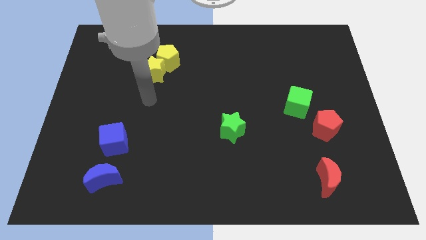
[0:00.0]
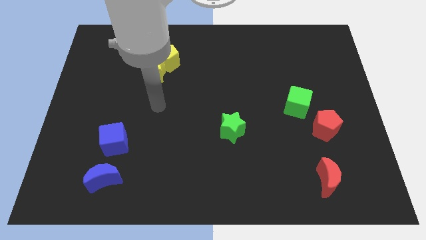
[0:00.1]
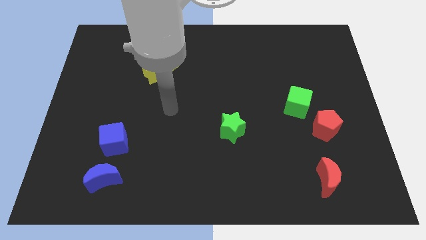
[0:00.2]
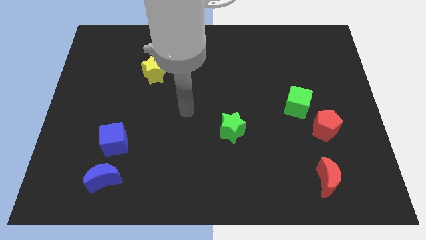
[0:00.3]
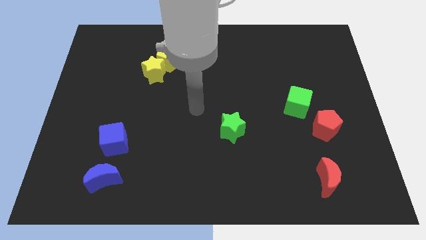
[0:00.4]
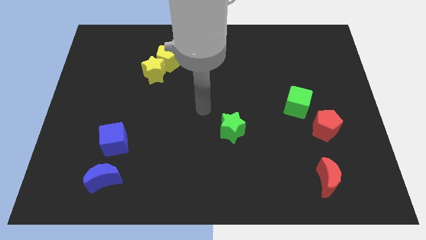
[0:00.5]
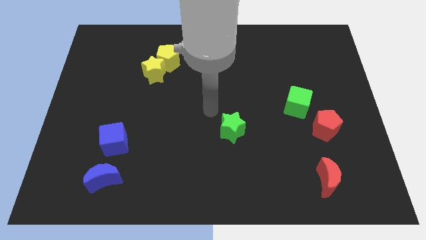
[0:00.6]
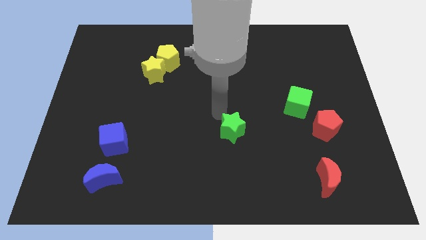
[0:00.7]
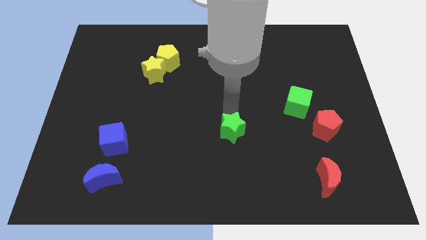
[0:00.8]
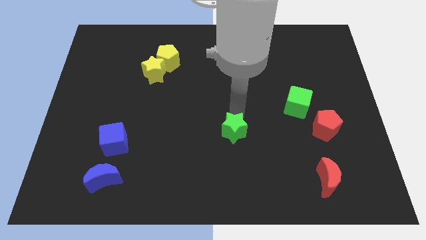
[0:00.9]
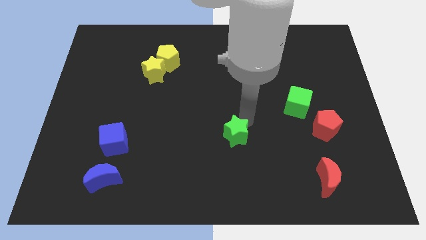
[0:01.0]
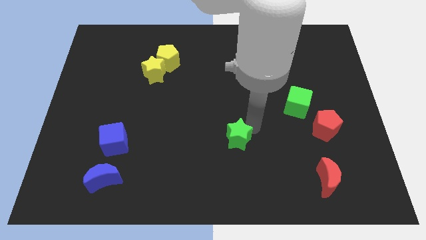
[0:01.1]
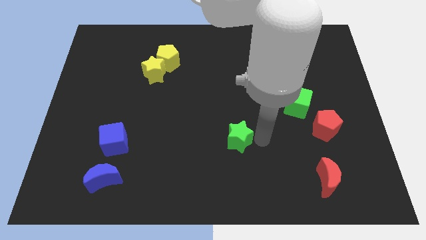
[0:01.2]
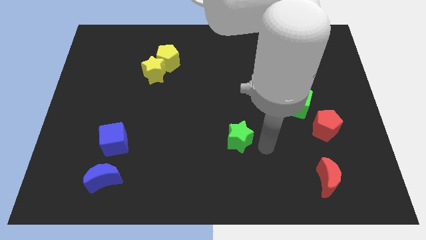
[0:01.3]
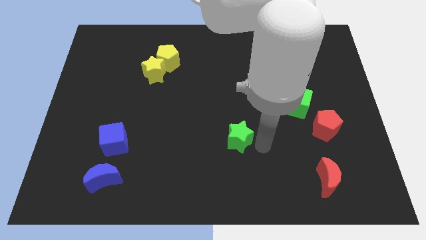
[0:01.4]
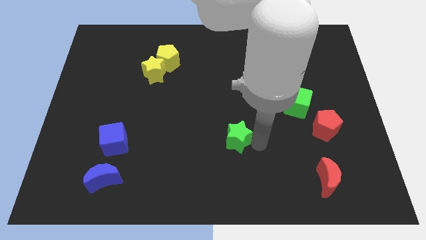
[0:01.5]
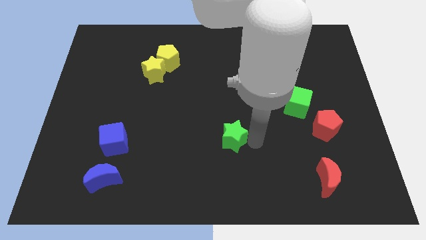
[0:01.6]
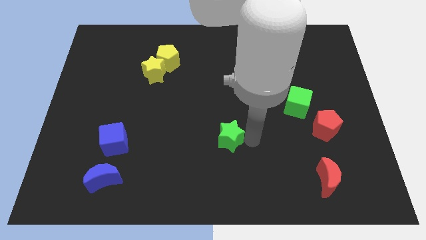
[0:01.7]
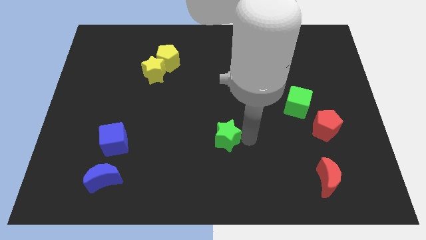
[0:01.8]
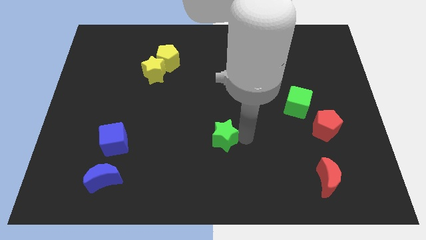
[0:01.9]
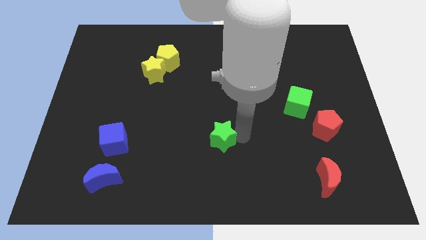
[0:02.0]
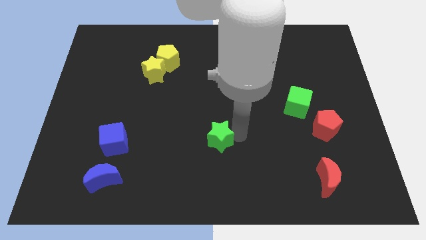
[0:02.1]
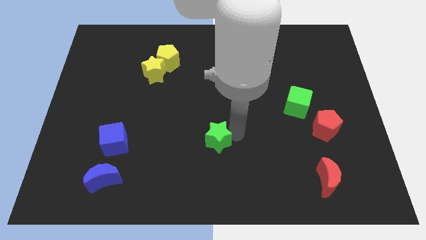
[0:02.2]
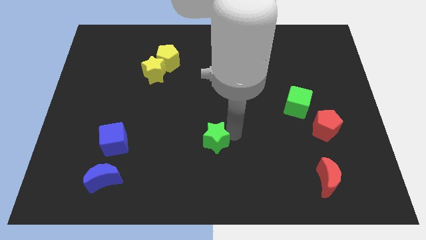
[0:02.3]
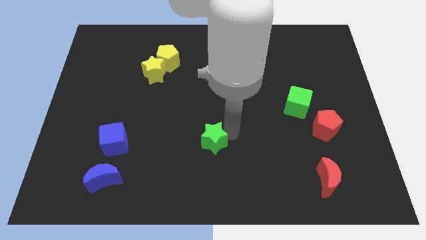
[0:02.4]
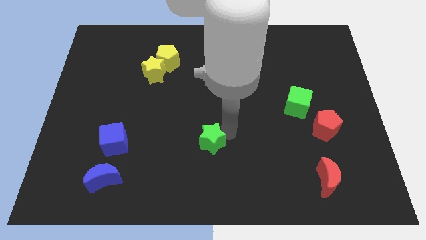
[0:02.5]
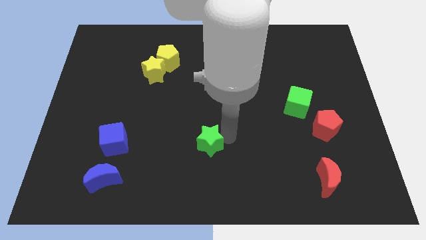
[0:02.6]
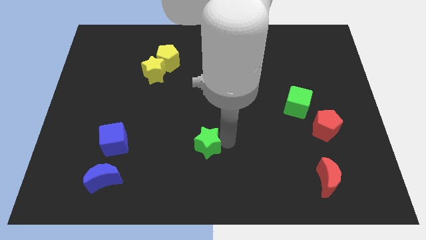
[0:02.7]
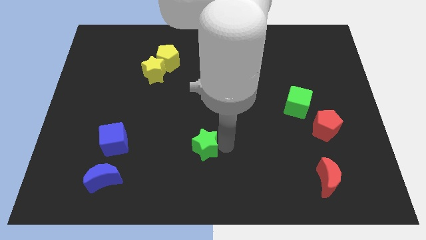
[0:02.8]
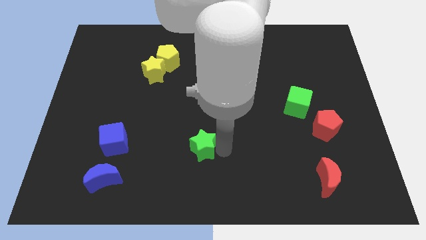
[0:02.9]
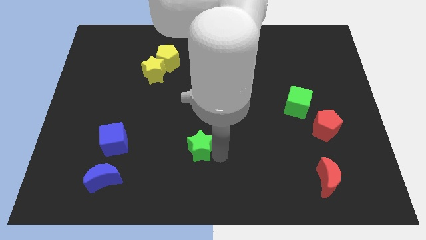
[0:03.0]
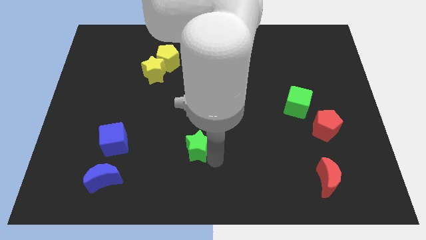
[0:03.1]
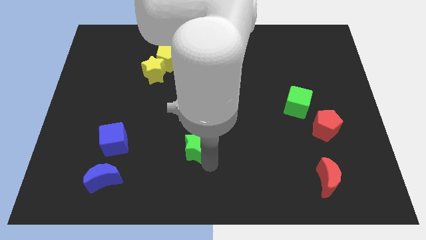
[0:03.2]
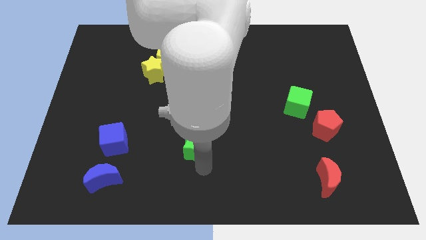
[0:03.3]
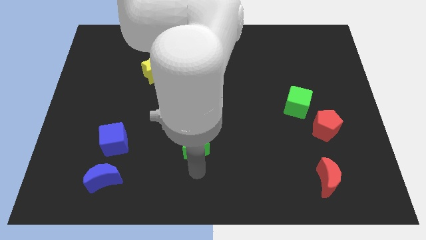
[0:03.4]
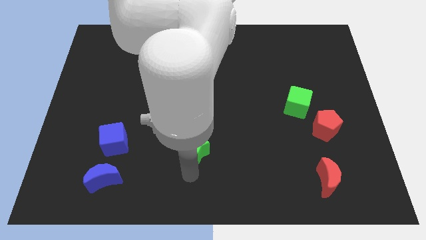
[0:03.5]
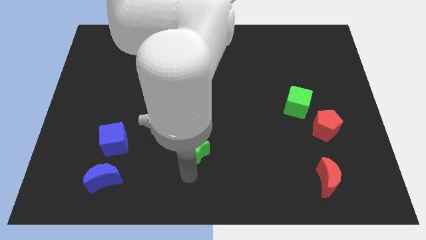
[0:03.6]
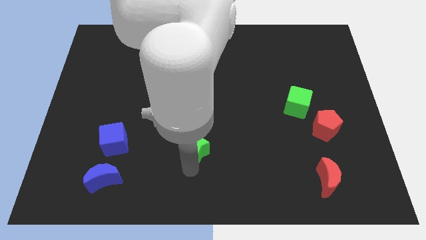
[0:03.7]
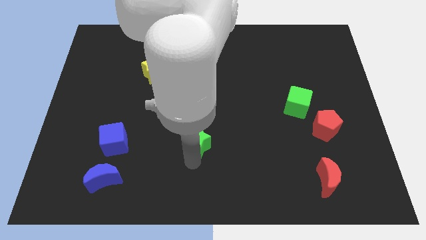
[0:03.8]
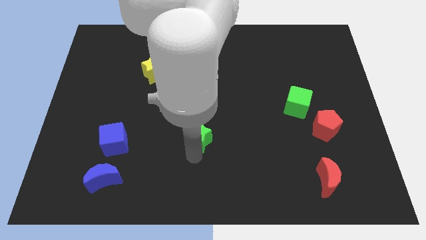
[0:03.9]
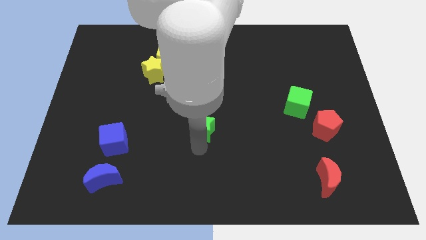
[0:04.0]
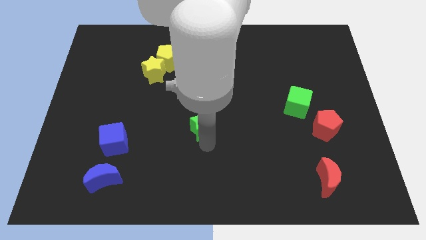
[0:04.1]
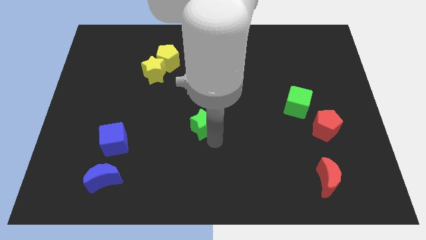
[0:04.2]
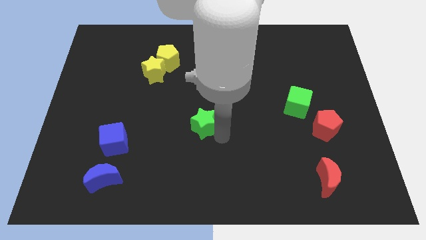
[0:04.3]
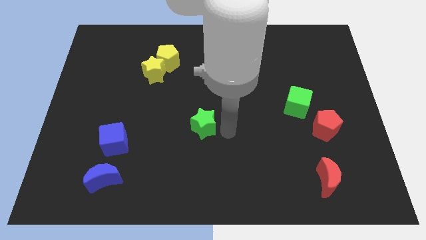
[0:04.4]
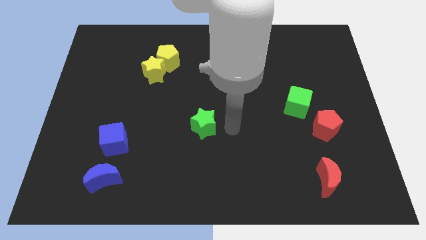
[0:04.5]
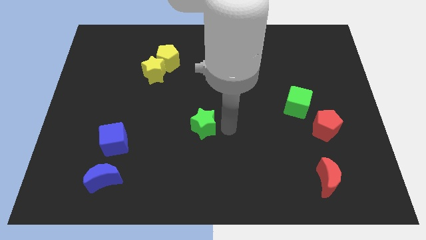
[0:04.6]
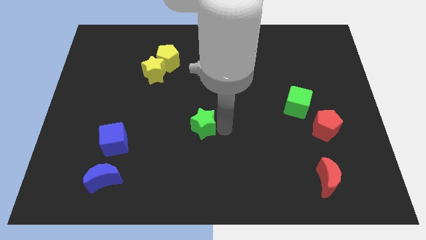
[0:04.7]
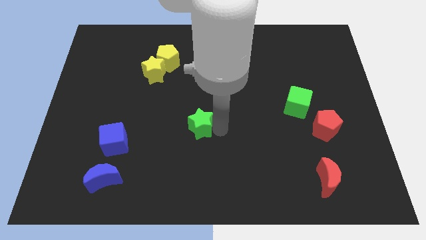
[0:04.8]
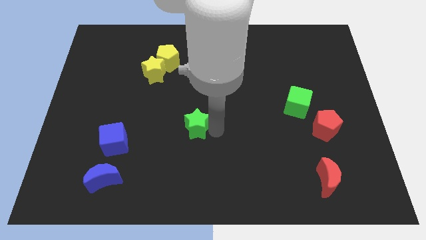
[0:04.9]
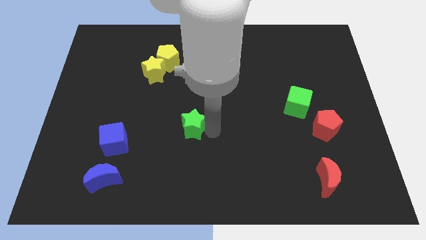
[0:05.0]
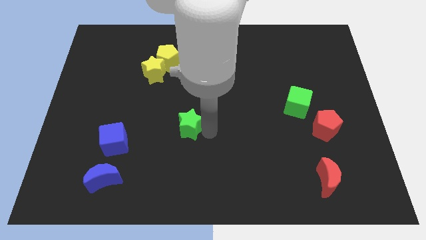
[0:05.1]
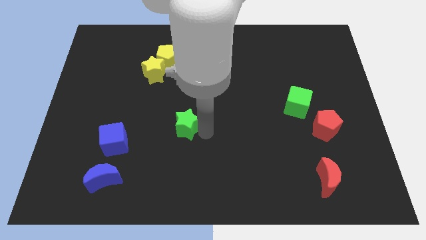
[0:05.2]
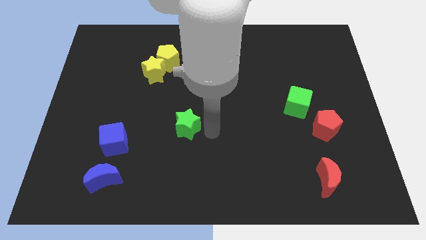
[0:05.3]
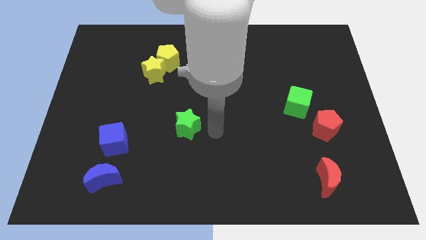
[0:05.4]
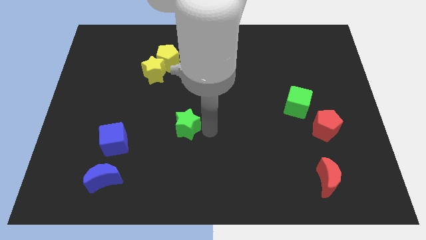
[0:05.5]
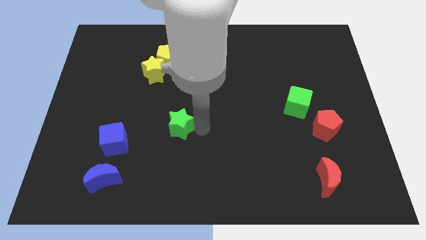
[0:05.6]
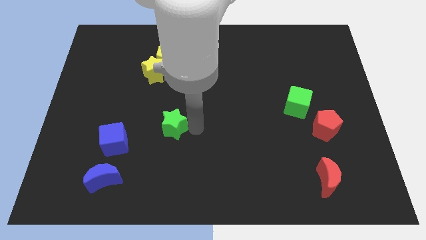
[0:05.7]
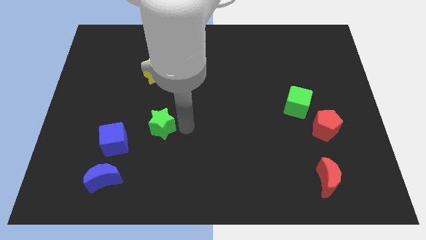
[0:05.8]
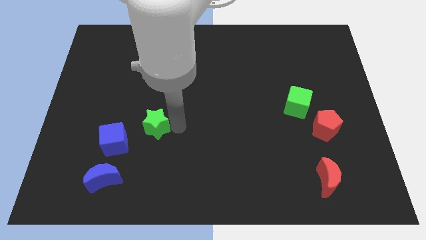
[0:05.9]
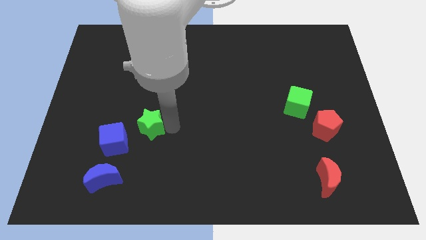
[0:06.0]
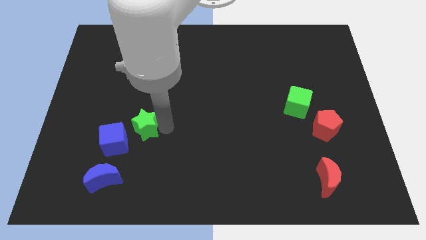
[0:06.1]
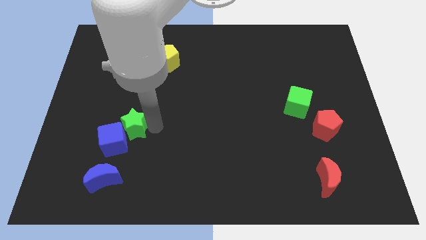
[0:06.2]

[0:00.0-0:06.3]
push the green star to the left

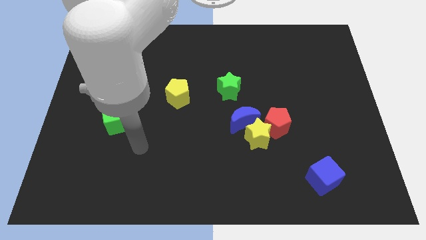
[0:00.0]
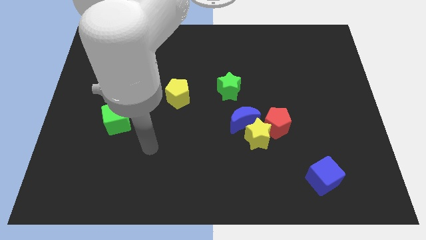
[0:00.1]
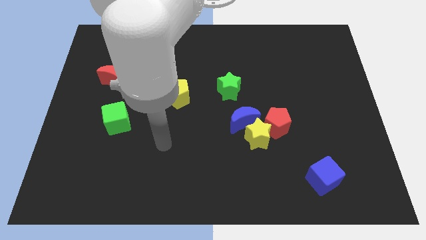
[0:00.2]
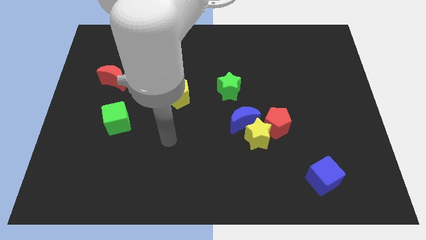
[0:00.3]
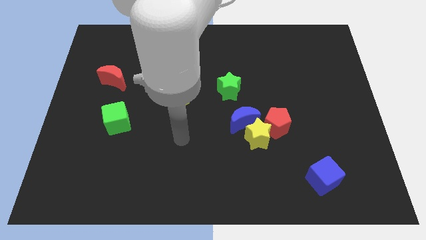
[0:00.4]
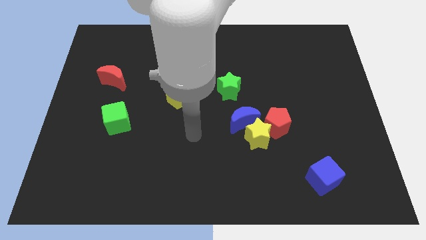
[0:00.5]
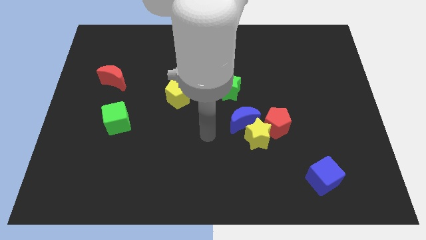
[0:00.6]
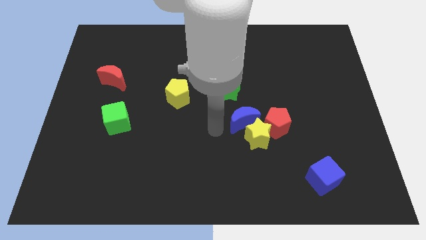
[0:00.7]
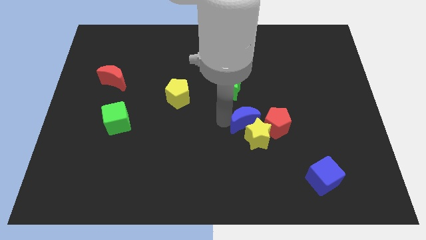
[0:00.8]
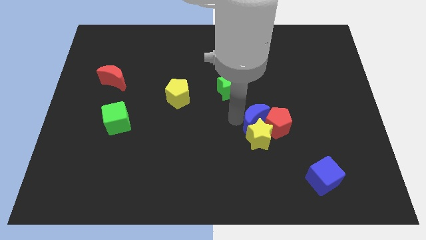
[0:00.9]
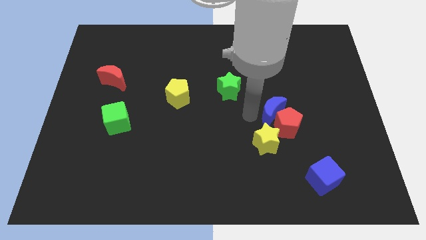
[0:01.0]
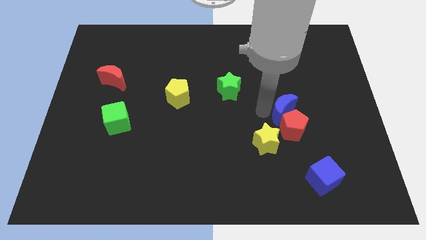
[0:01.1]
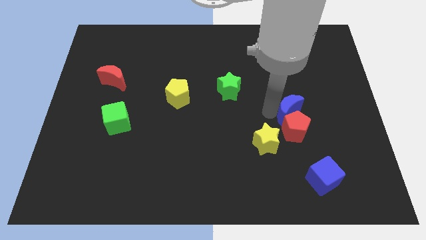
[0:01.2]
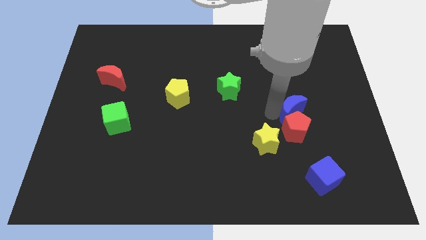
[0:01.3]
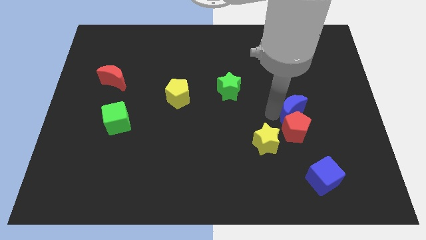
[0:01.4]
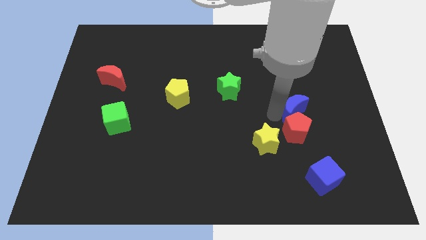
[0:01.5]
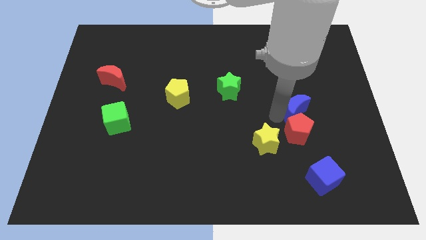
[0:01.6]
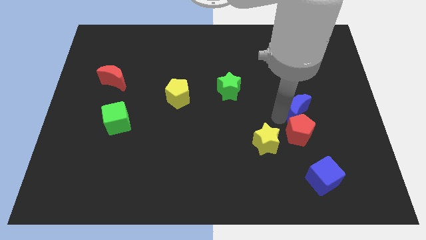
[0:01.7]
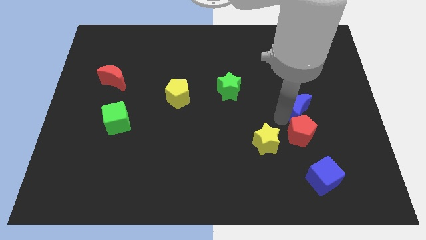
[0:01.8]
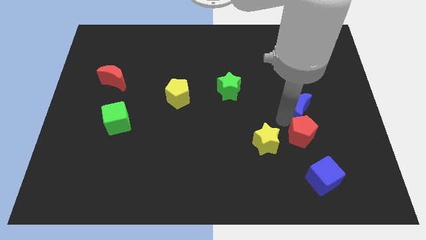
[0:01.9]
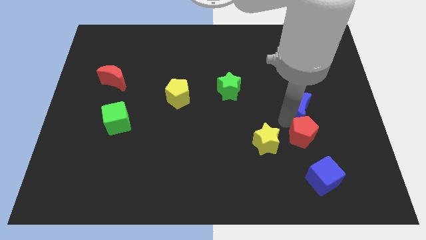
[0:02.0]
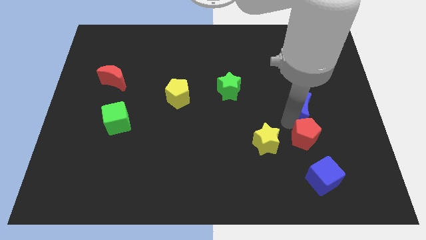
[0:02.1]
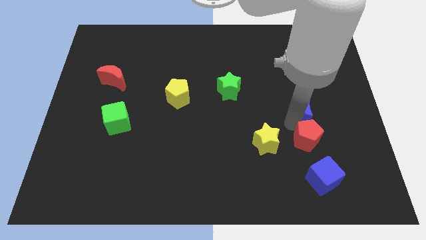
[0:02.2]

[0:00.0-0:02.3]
slightly slide the red pentagon downwards and right diagonally
